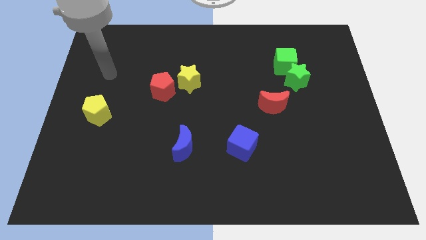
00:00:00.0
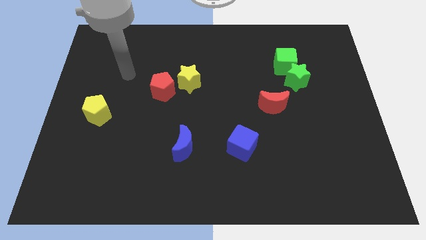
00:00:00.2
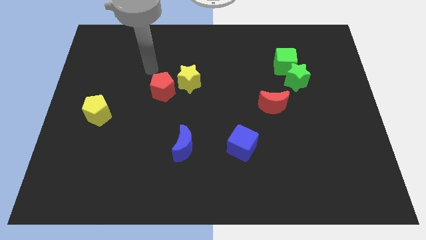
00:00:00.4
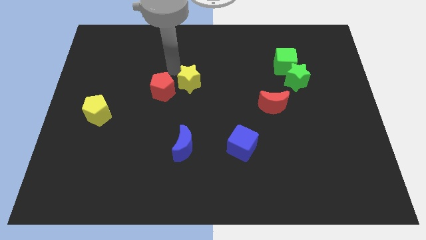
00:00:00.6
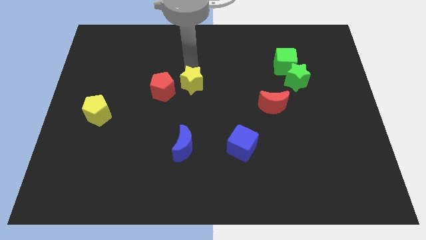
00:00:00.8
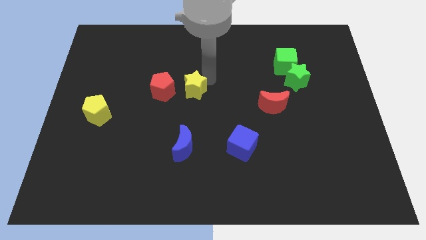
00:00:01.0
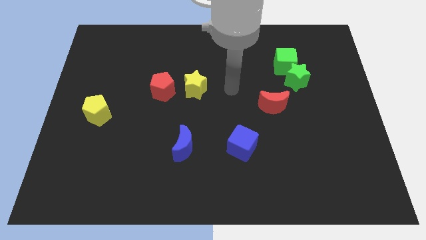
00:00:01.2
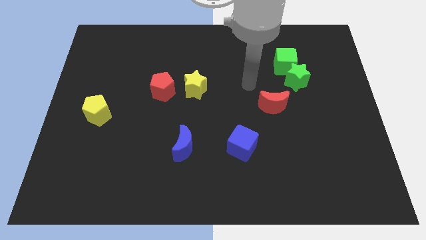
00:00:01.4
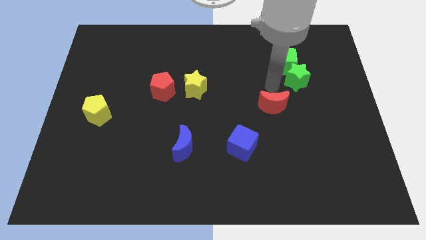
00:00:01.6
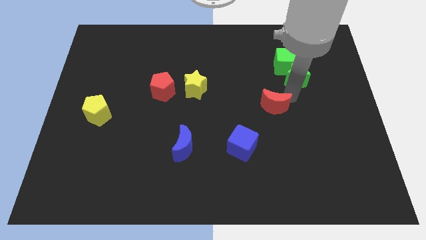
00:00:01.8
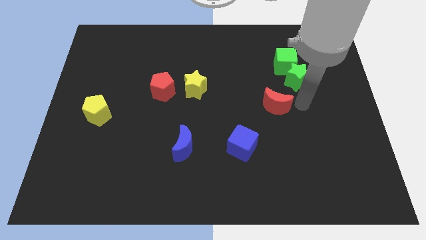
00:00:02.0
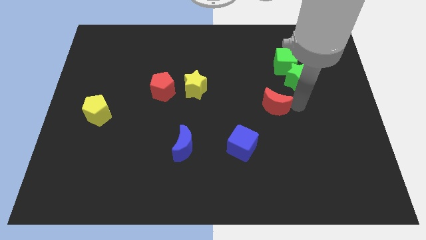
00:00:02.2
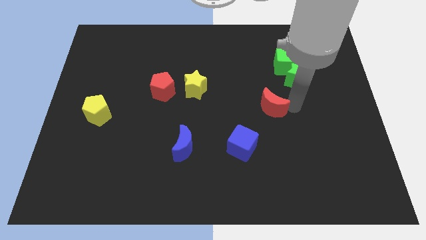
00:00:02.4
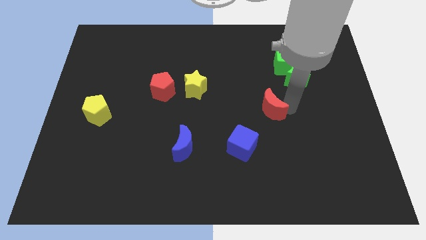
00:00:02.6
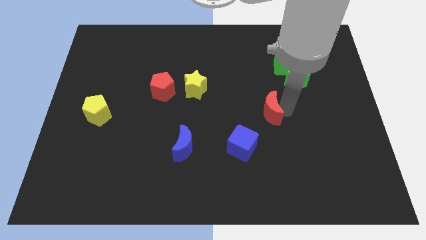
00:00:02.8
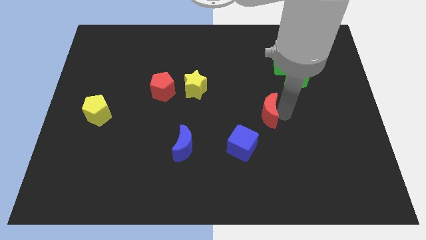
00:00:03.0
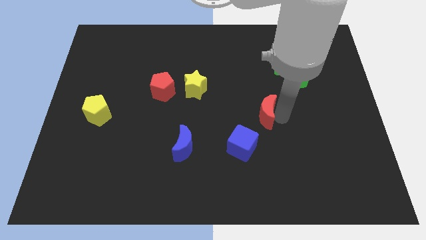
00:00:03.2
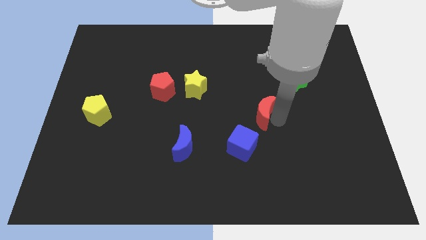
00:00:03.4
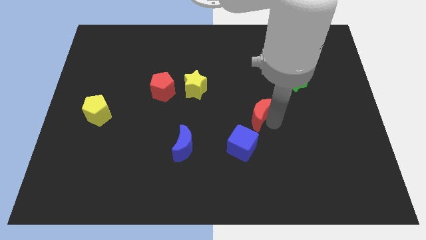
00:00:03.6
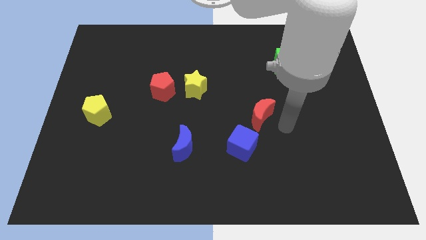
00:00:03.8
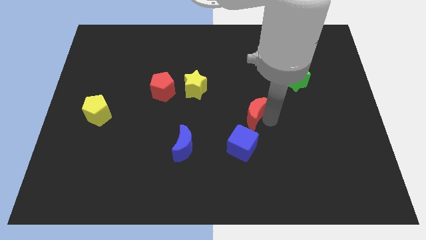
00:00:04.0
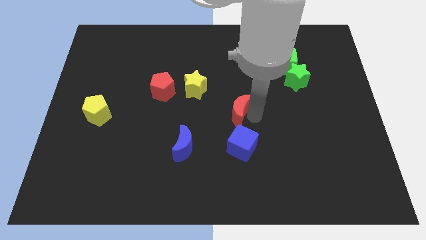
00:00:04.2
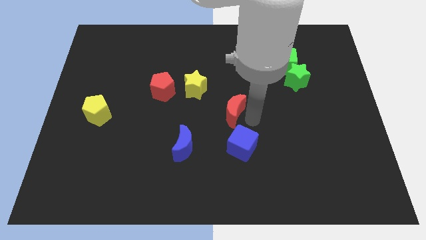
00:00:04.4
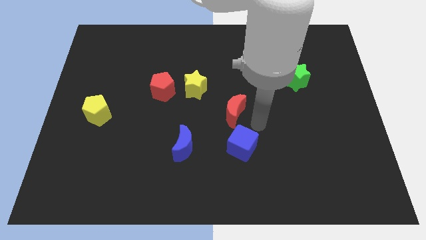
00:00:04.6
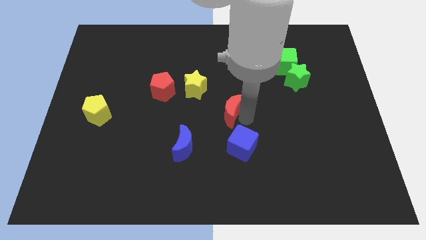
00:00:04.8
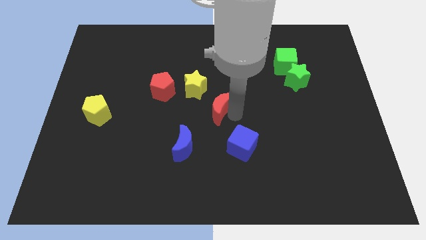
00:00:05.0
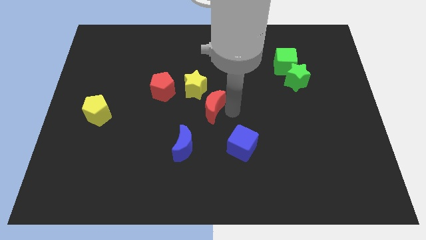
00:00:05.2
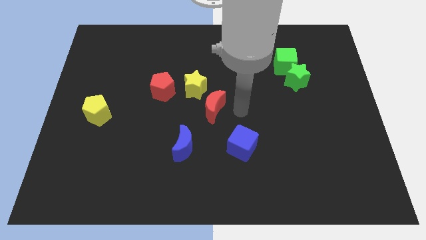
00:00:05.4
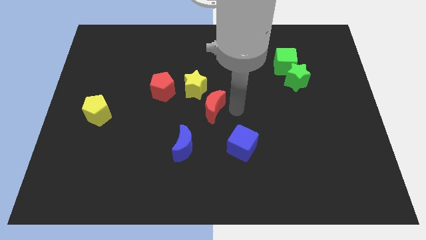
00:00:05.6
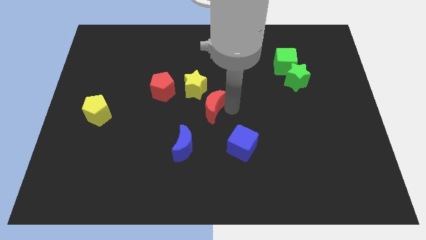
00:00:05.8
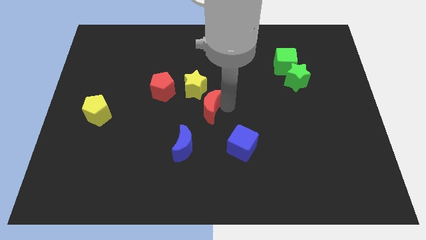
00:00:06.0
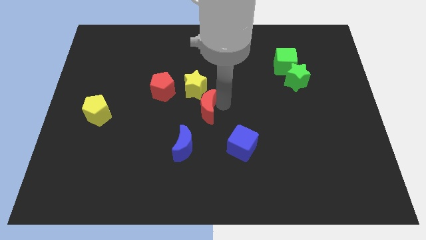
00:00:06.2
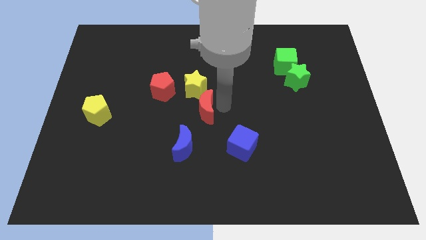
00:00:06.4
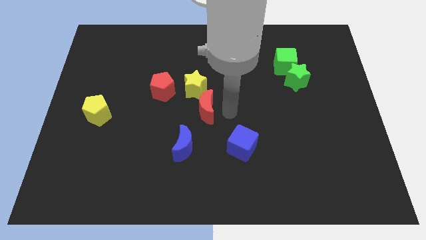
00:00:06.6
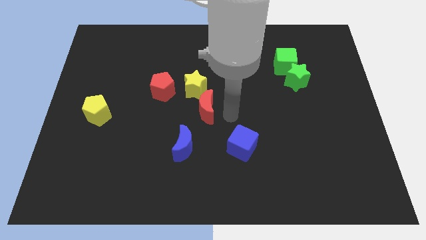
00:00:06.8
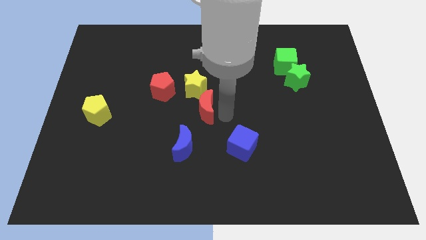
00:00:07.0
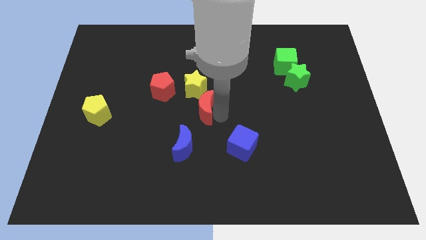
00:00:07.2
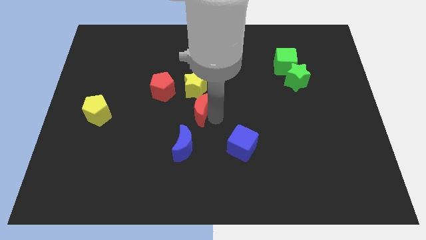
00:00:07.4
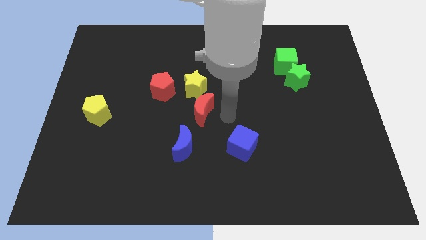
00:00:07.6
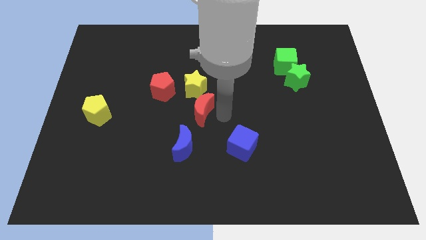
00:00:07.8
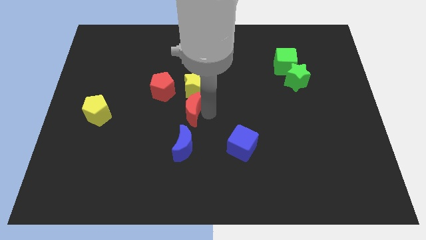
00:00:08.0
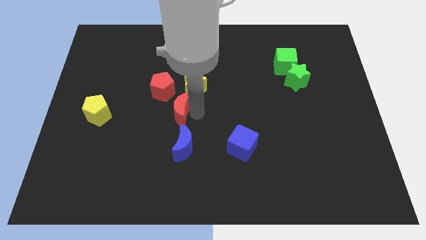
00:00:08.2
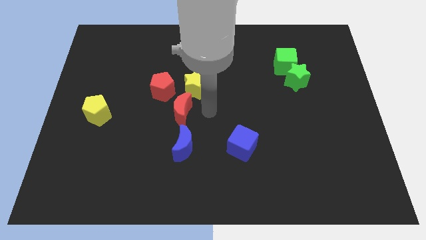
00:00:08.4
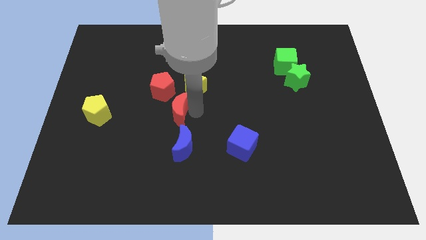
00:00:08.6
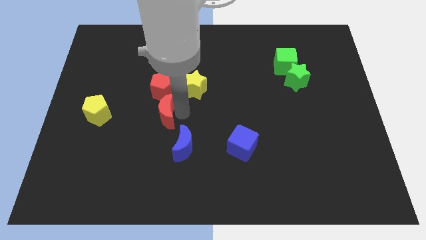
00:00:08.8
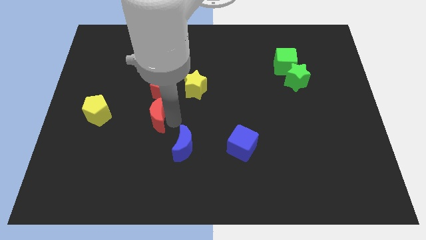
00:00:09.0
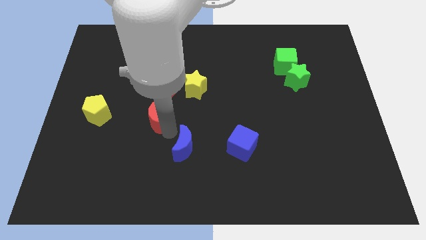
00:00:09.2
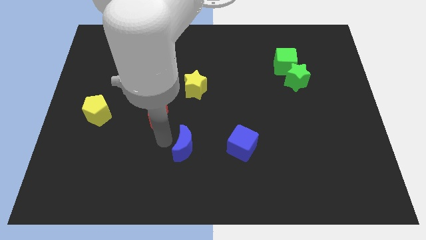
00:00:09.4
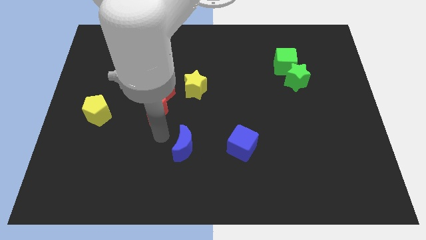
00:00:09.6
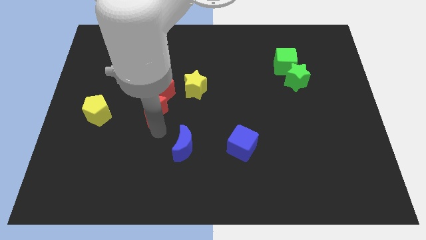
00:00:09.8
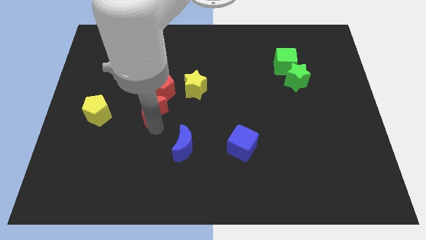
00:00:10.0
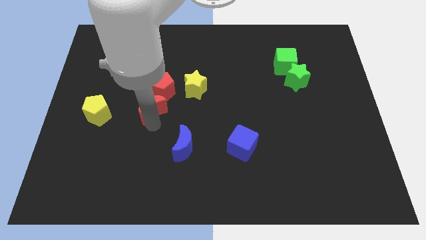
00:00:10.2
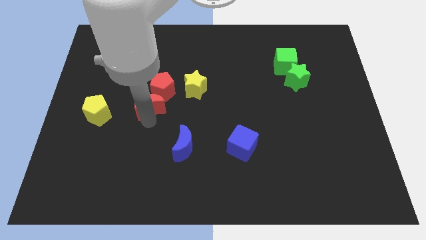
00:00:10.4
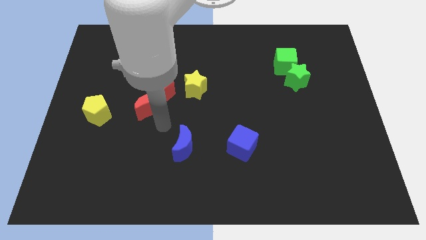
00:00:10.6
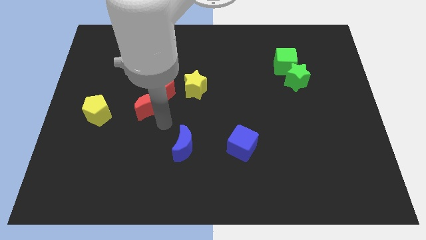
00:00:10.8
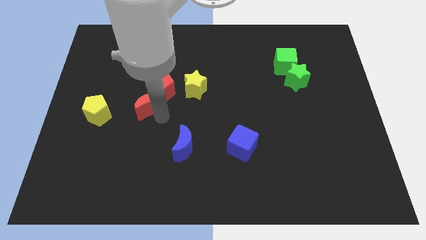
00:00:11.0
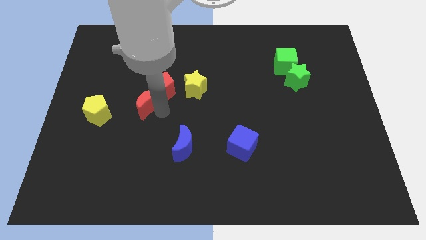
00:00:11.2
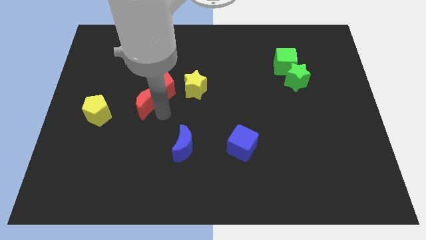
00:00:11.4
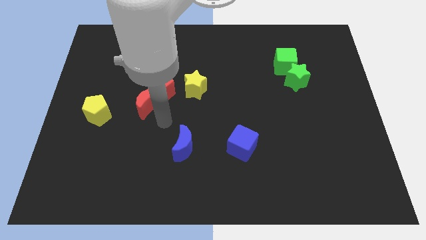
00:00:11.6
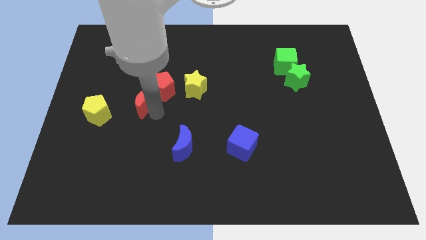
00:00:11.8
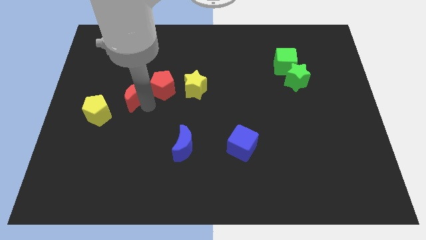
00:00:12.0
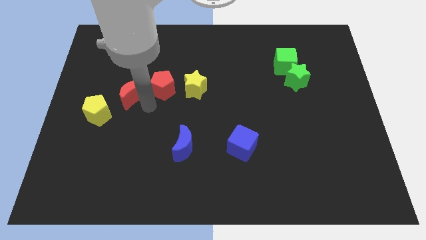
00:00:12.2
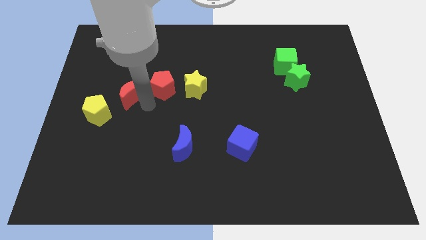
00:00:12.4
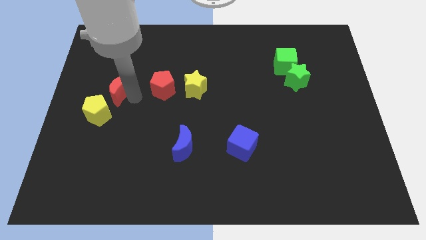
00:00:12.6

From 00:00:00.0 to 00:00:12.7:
push the red moon to the top of the yellow pentagon
